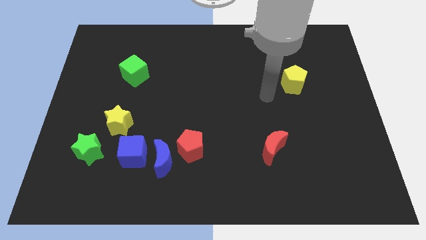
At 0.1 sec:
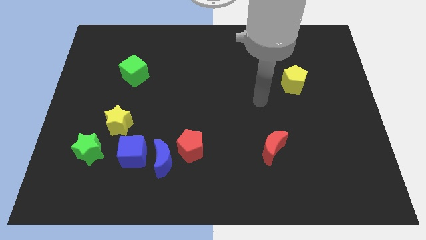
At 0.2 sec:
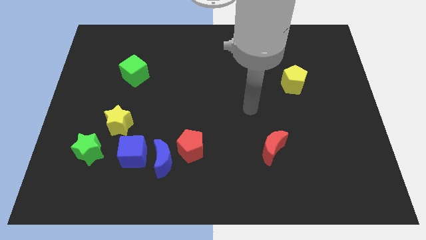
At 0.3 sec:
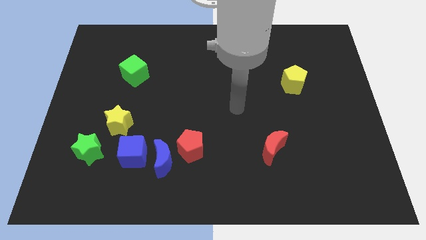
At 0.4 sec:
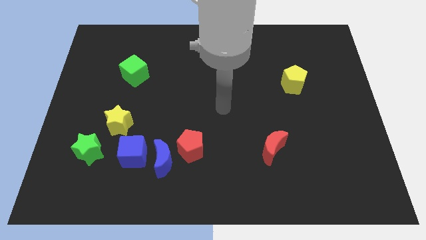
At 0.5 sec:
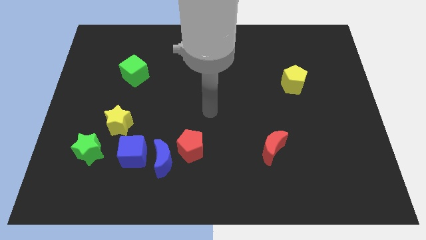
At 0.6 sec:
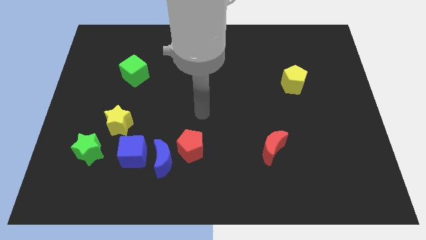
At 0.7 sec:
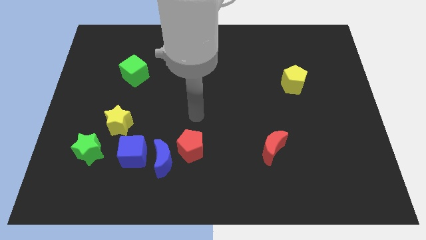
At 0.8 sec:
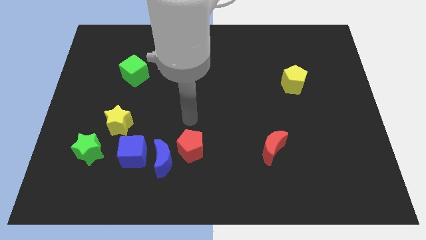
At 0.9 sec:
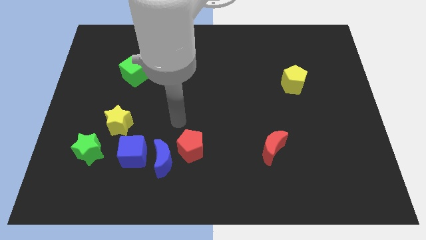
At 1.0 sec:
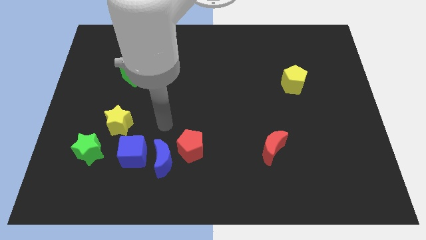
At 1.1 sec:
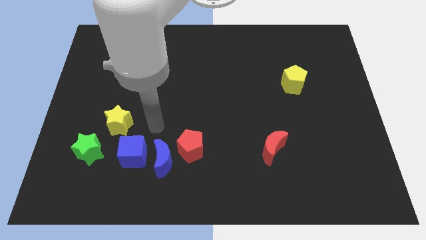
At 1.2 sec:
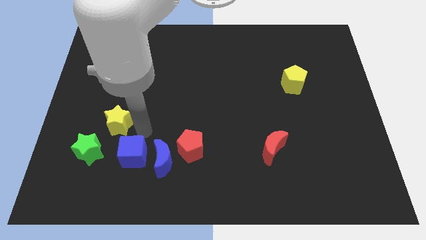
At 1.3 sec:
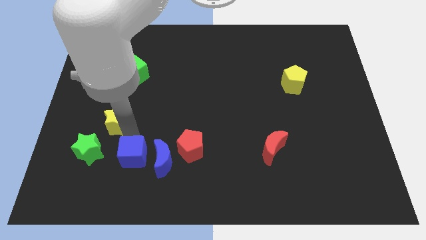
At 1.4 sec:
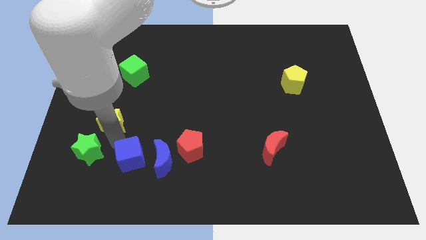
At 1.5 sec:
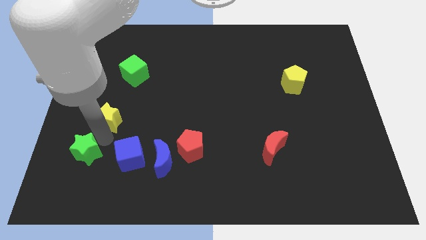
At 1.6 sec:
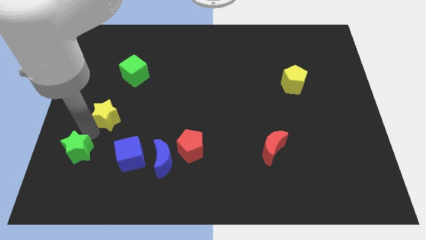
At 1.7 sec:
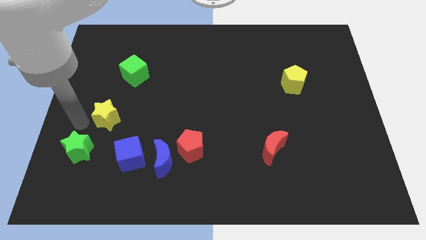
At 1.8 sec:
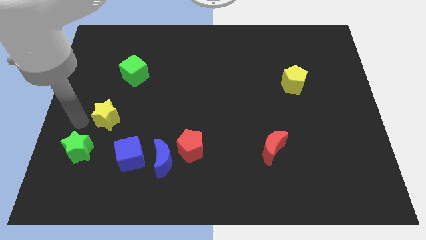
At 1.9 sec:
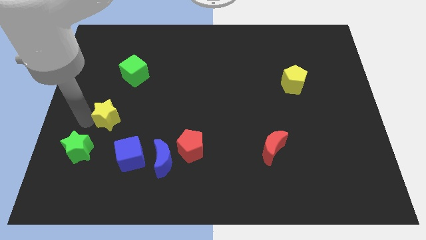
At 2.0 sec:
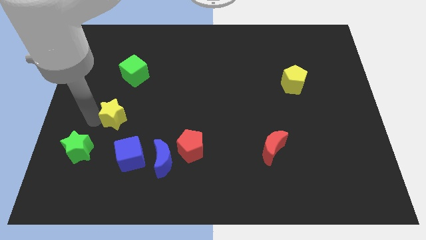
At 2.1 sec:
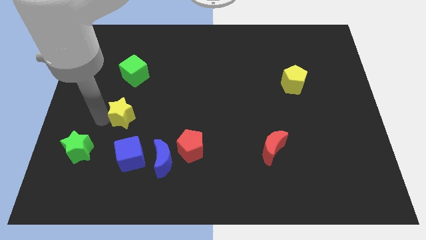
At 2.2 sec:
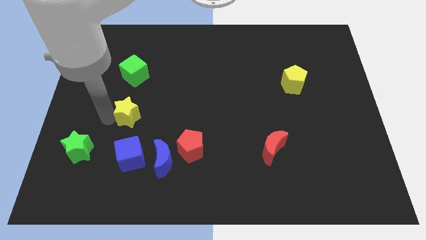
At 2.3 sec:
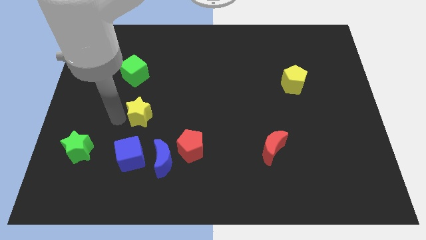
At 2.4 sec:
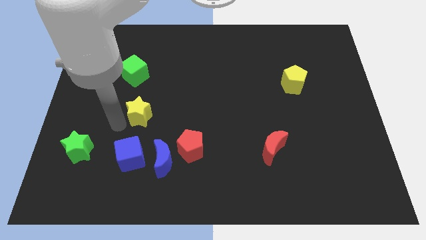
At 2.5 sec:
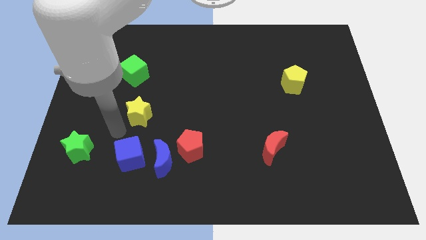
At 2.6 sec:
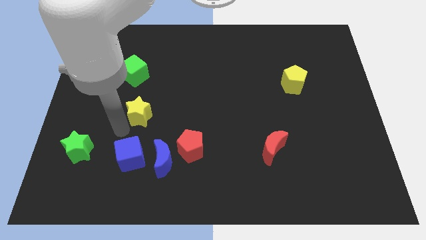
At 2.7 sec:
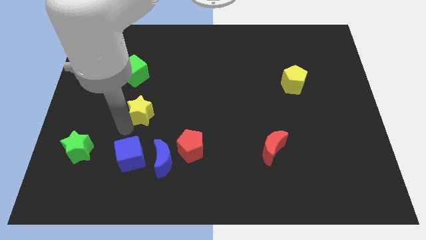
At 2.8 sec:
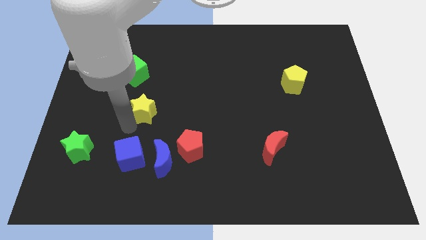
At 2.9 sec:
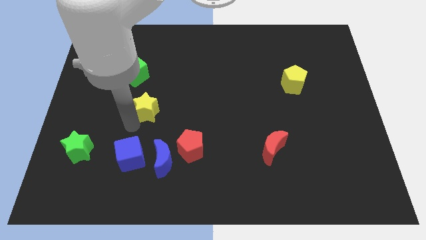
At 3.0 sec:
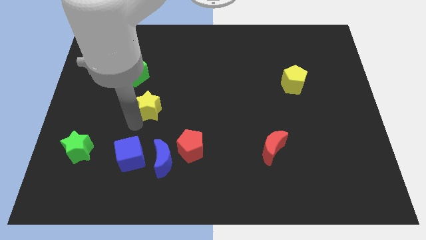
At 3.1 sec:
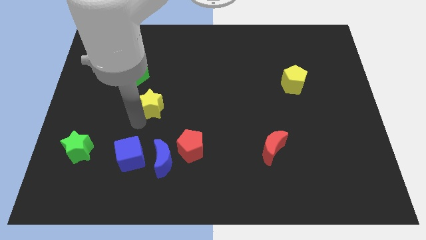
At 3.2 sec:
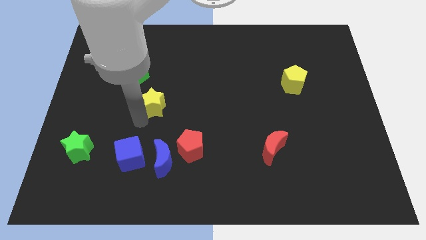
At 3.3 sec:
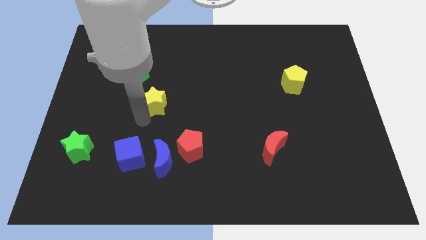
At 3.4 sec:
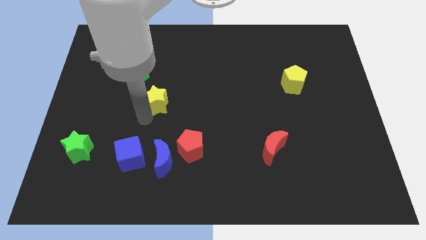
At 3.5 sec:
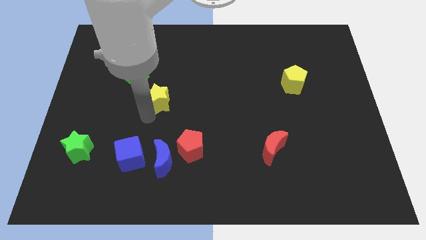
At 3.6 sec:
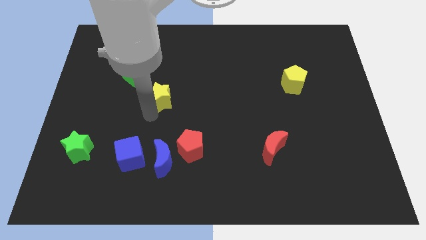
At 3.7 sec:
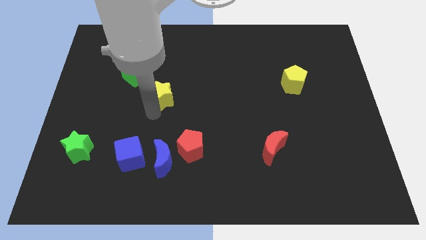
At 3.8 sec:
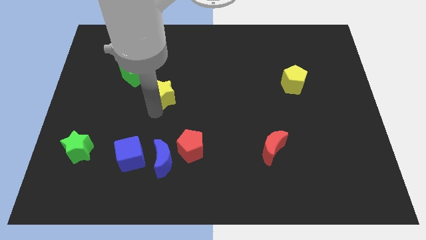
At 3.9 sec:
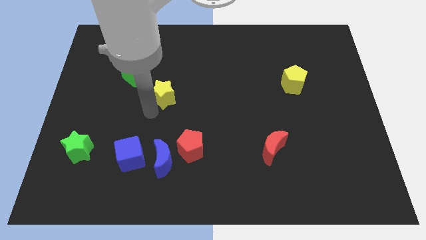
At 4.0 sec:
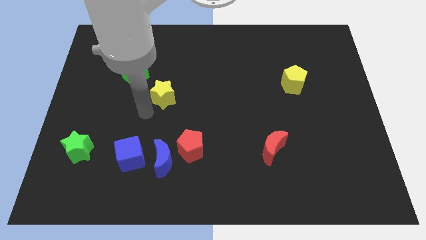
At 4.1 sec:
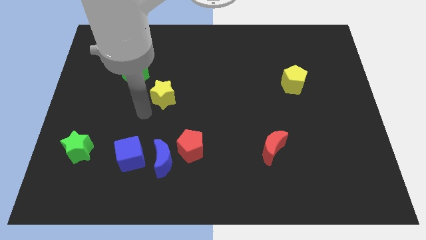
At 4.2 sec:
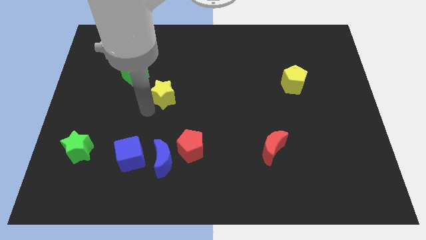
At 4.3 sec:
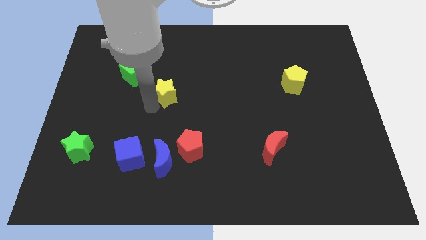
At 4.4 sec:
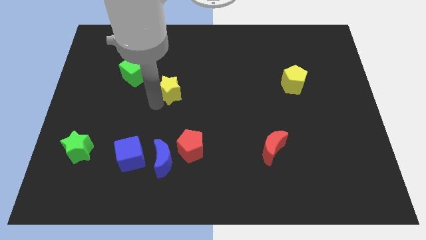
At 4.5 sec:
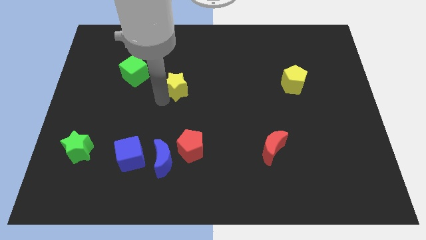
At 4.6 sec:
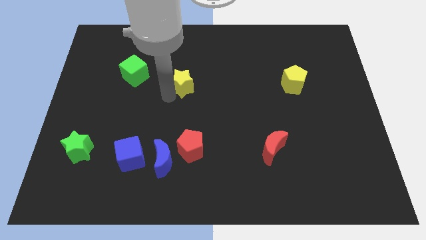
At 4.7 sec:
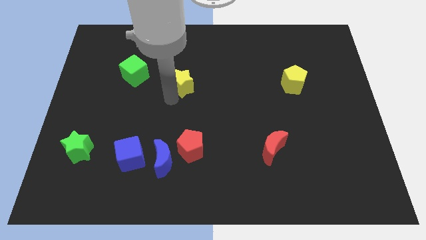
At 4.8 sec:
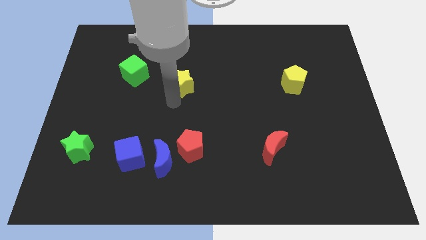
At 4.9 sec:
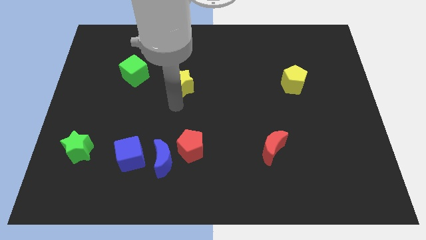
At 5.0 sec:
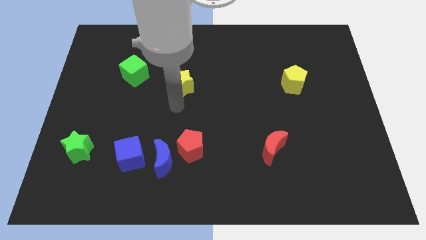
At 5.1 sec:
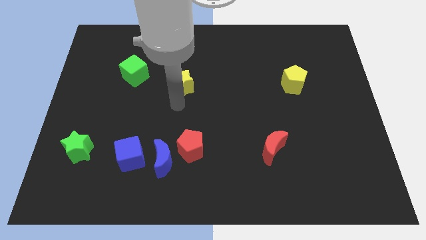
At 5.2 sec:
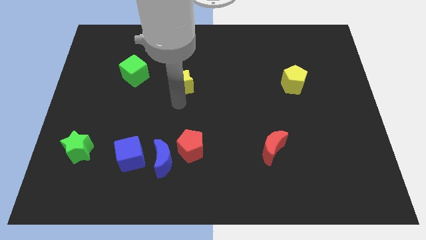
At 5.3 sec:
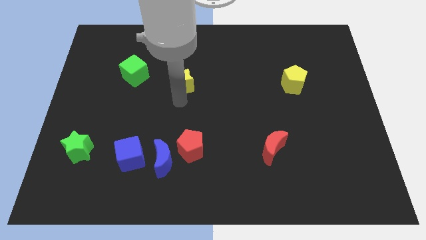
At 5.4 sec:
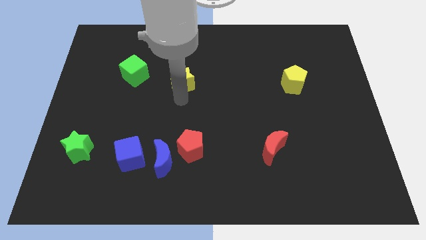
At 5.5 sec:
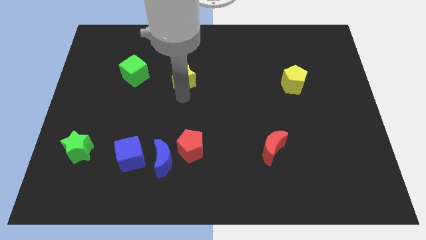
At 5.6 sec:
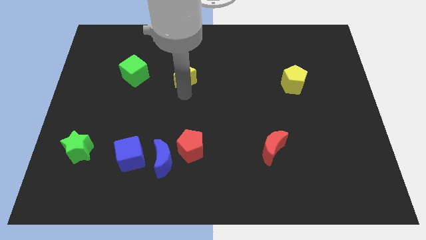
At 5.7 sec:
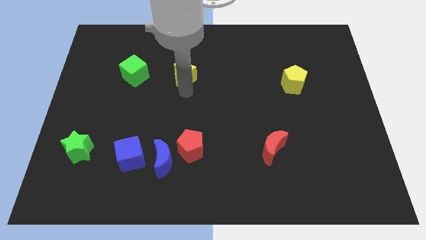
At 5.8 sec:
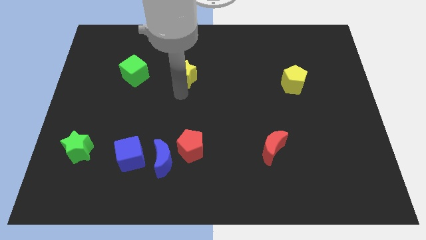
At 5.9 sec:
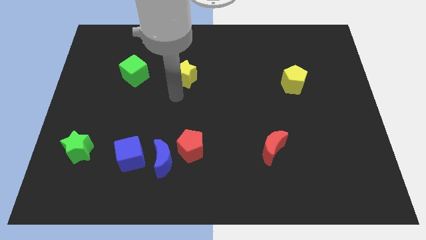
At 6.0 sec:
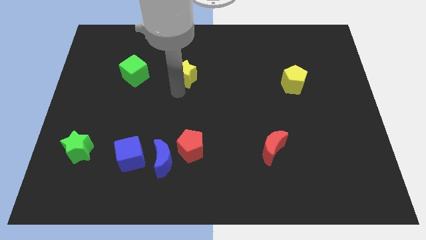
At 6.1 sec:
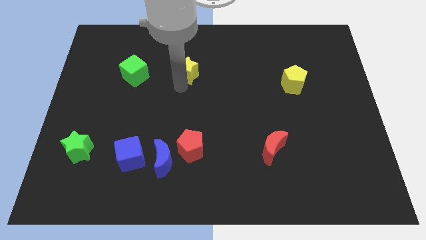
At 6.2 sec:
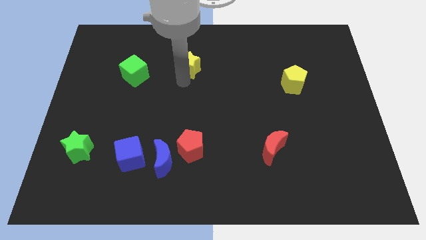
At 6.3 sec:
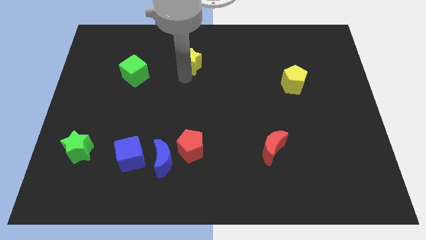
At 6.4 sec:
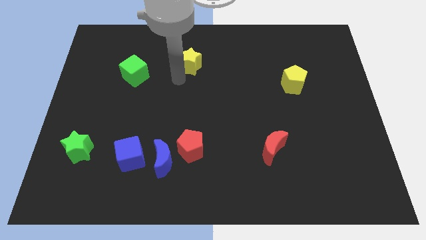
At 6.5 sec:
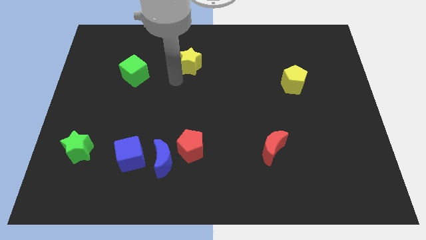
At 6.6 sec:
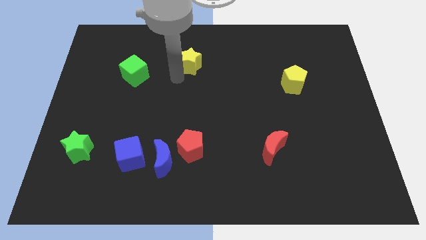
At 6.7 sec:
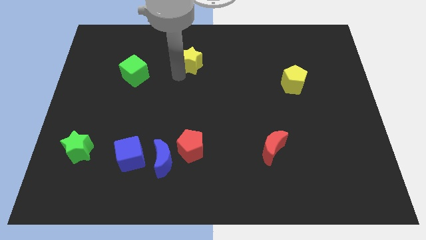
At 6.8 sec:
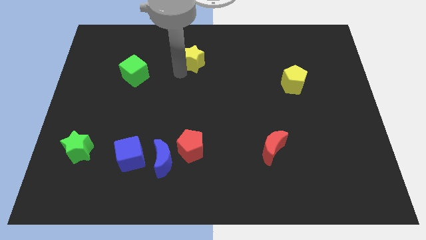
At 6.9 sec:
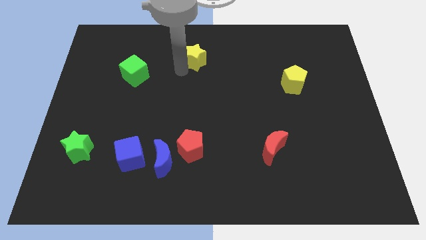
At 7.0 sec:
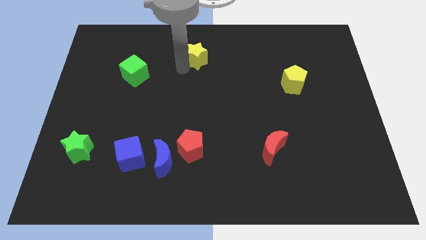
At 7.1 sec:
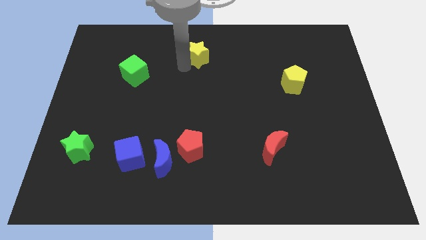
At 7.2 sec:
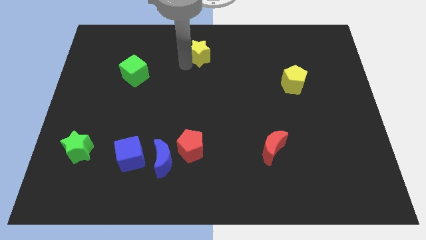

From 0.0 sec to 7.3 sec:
slide the yellow star to the top
